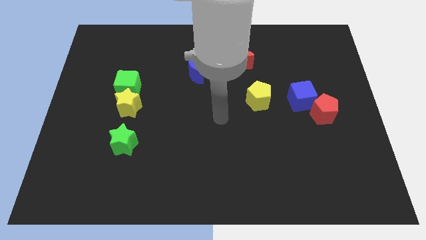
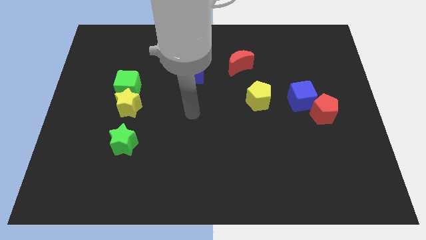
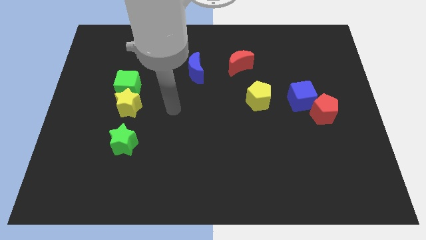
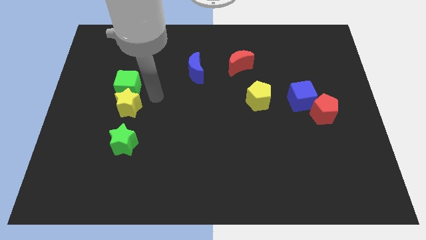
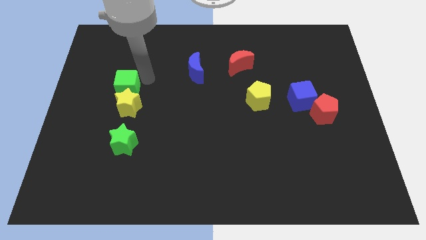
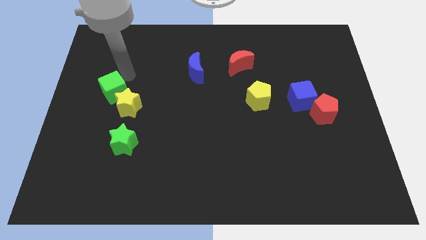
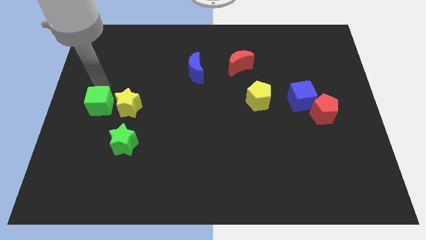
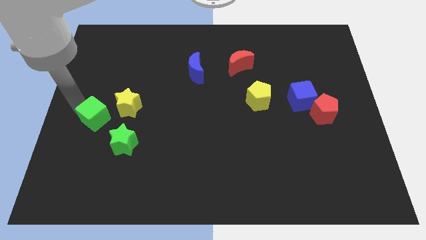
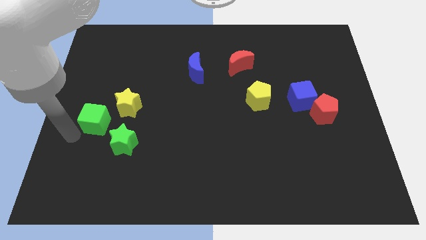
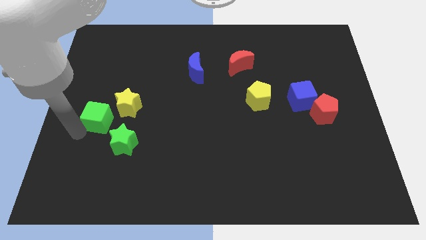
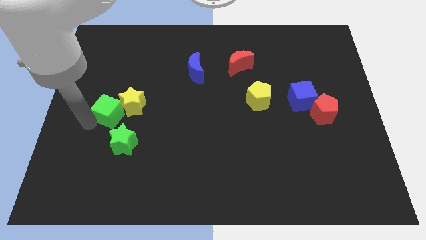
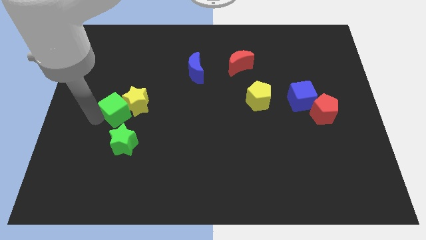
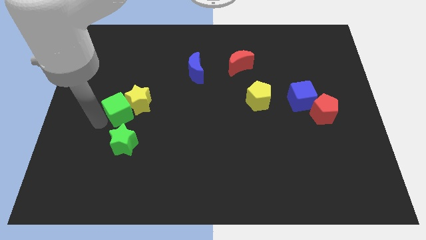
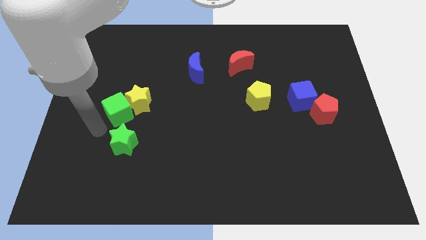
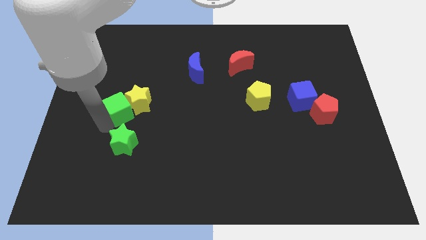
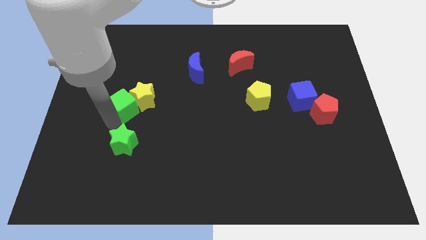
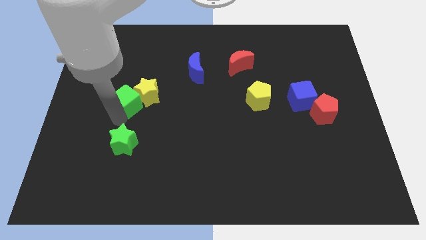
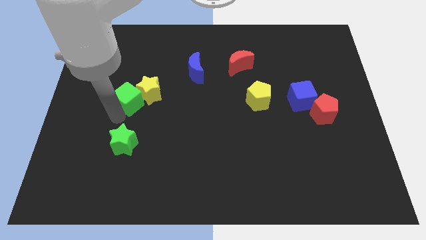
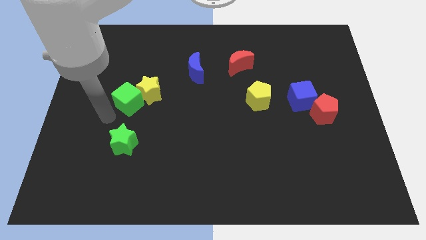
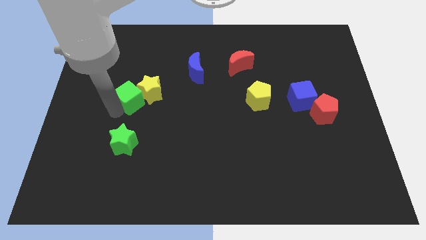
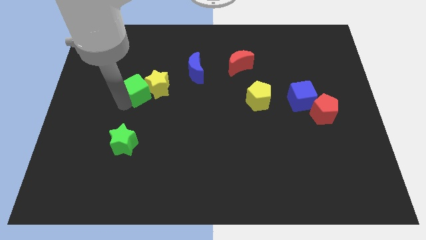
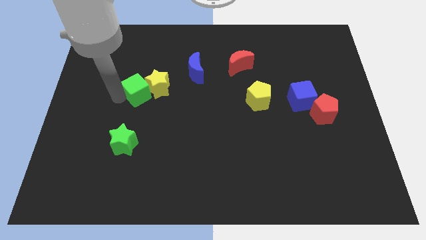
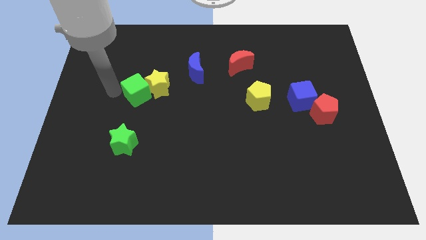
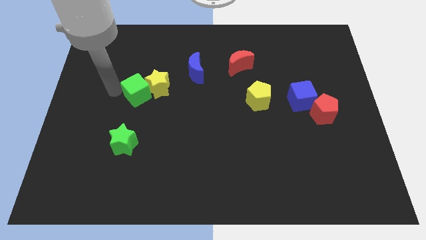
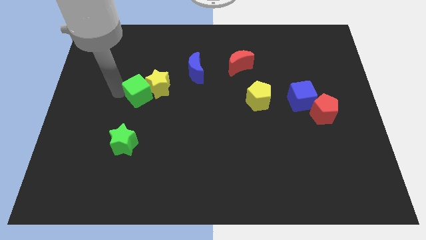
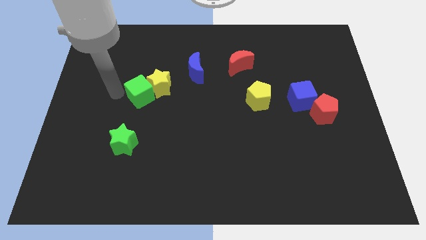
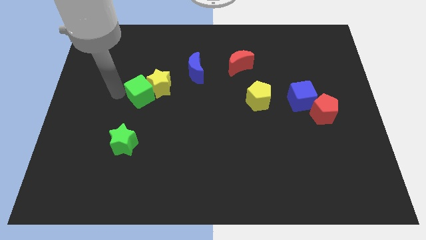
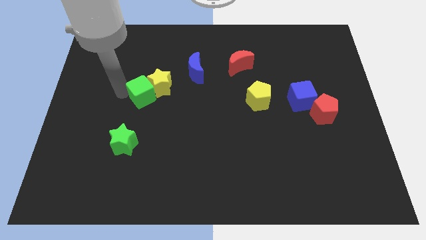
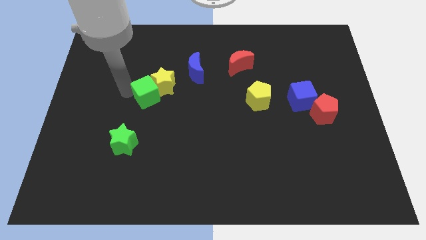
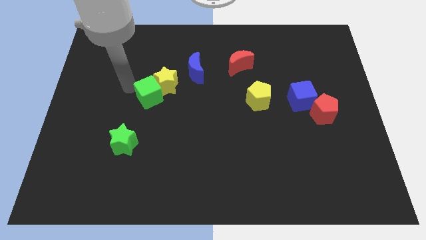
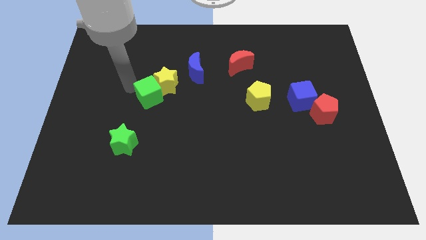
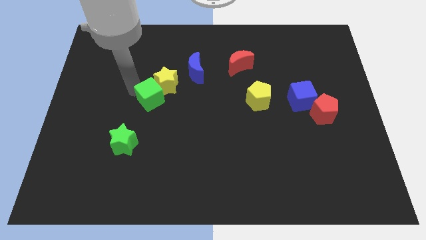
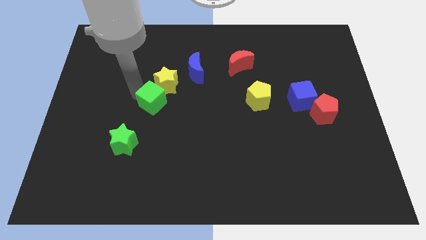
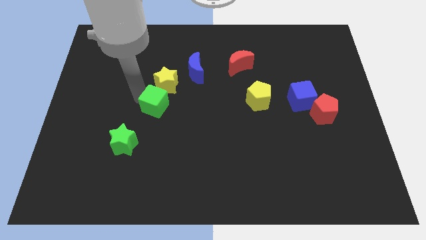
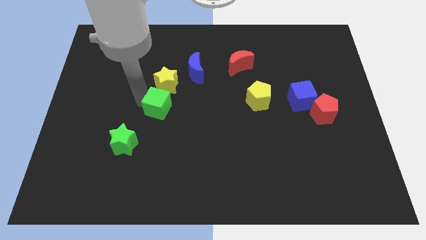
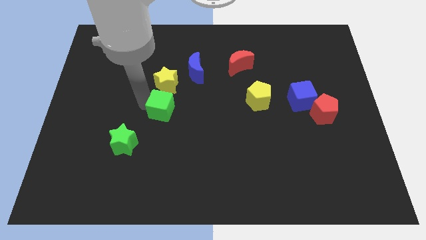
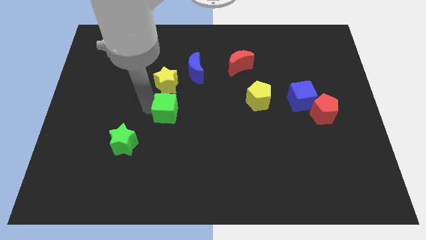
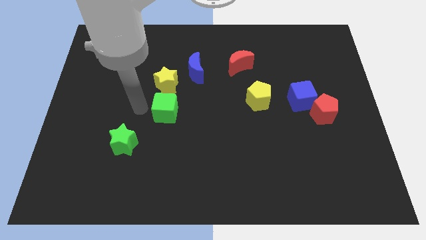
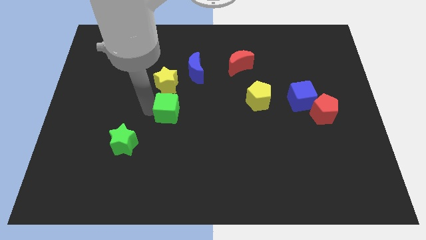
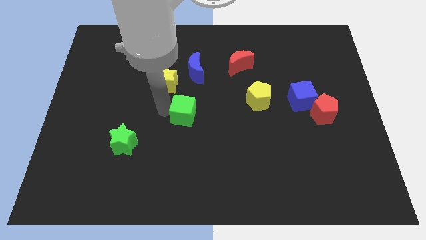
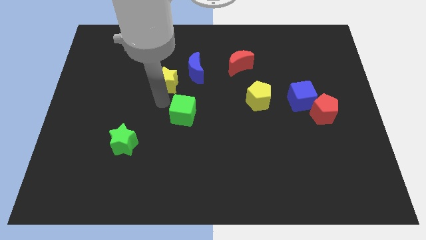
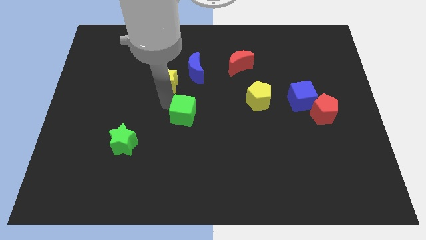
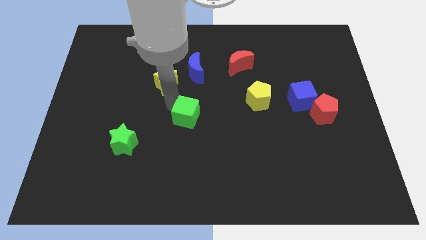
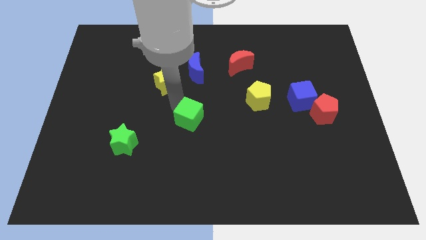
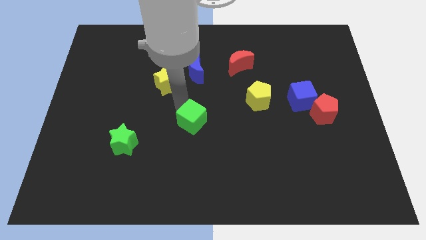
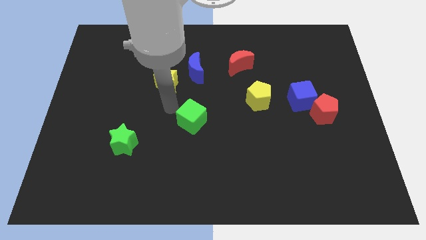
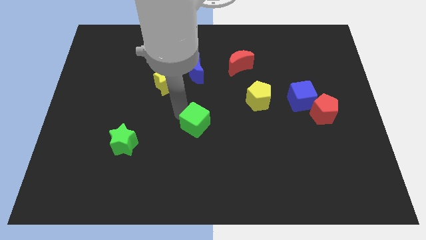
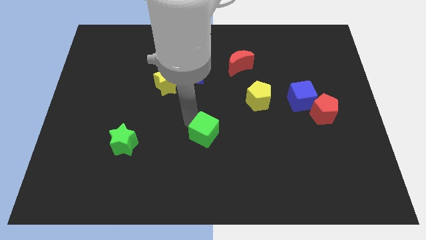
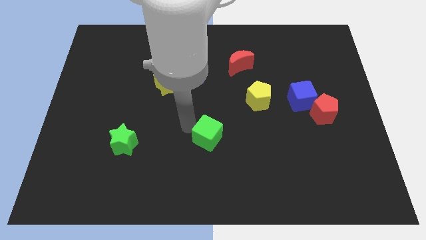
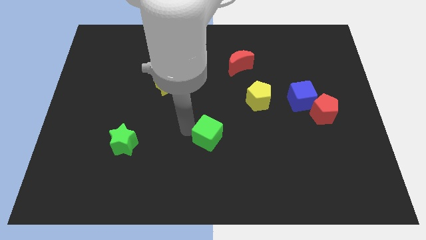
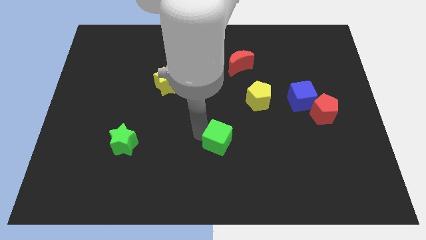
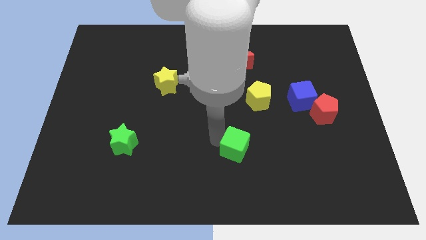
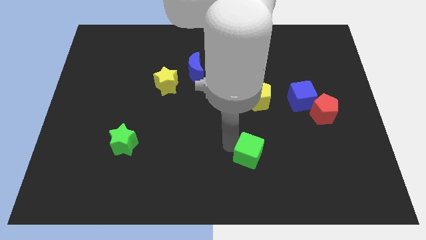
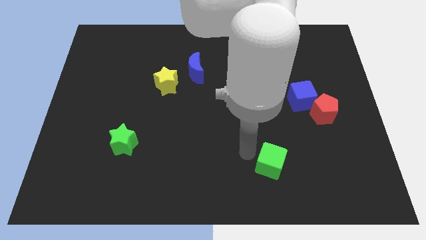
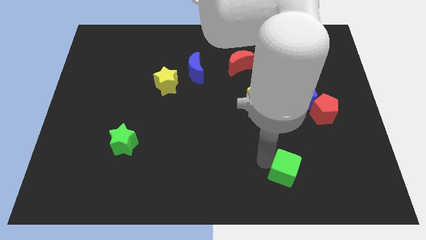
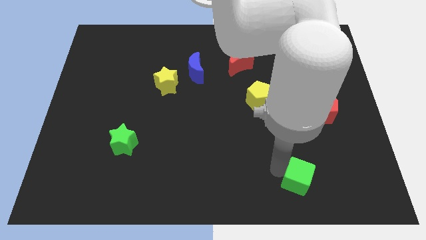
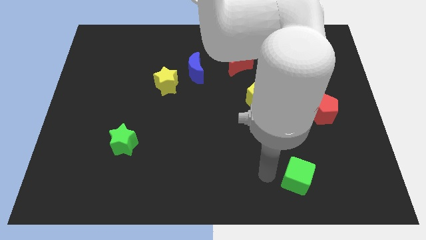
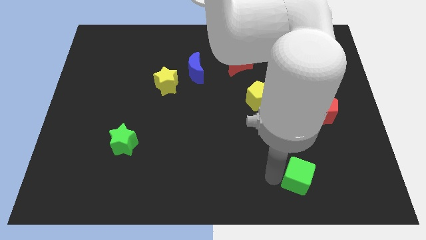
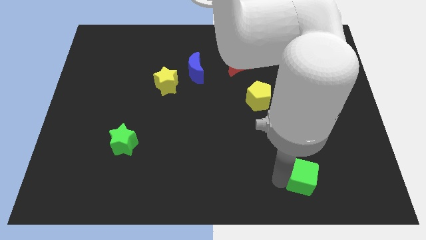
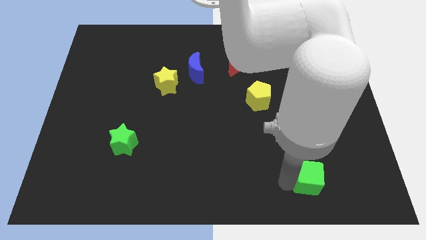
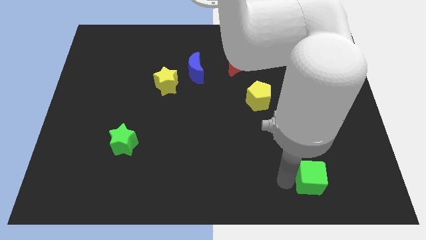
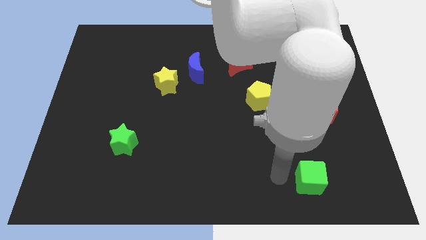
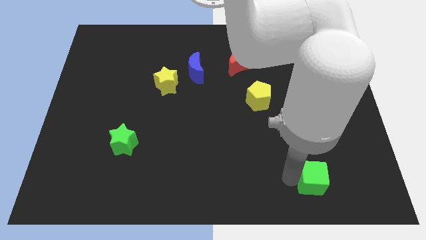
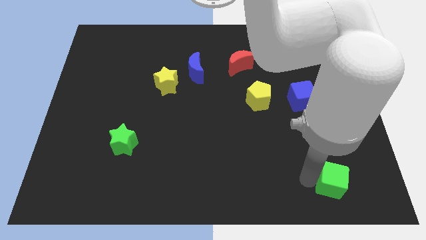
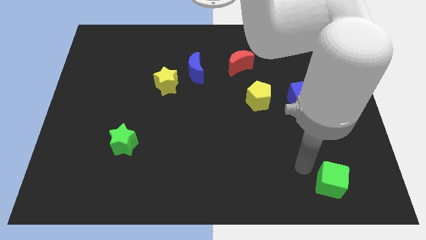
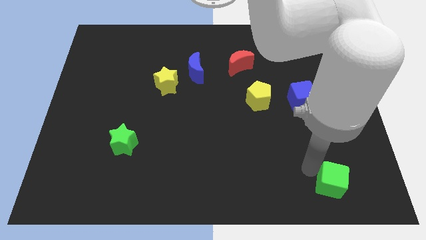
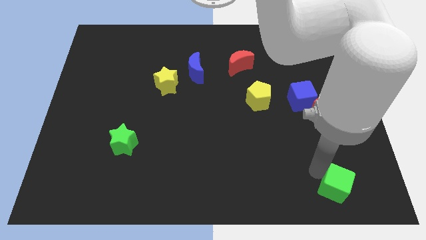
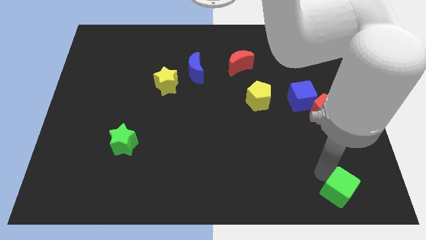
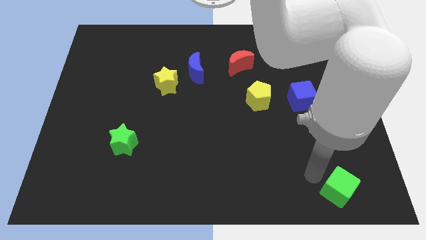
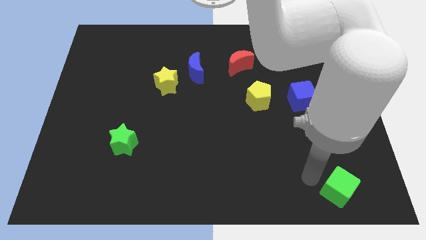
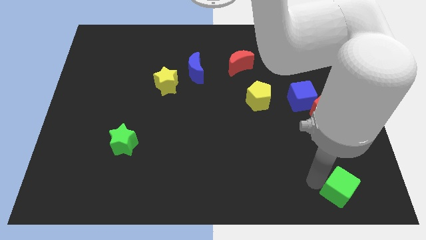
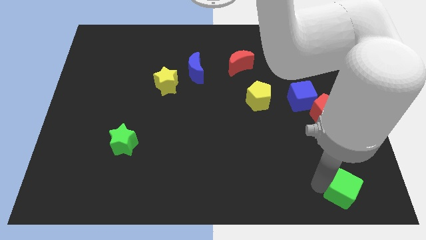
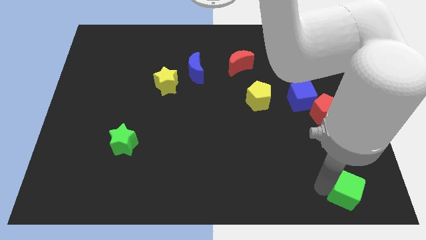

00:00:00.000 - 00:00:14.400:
move the green cube to the bottom right of the board
